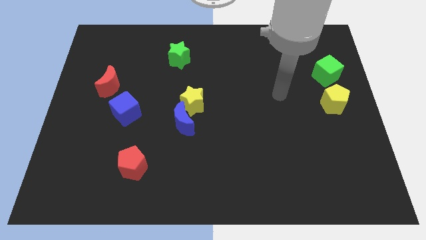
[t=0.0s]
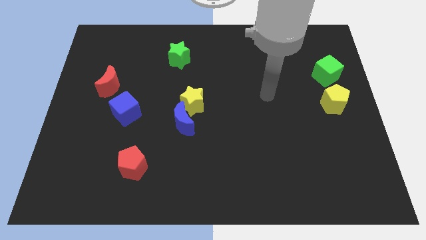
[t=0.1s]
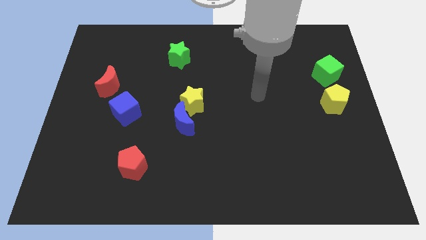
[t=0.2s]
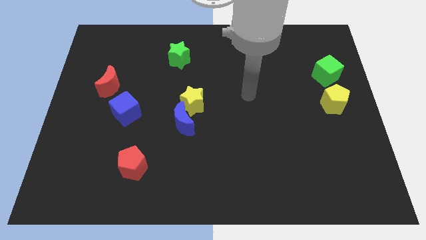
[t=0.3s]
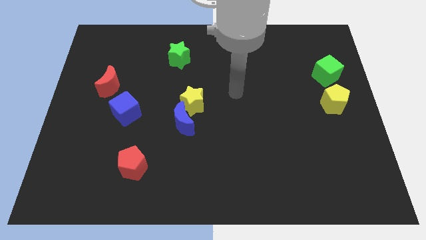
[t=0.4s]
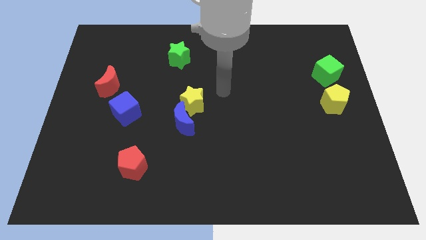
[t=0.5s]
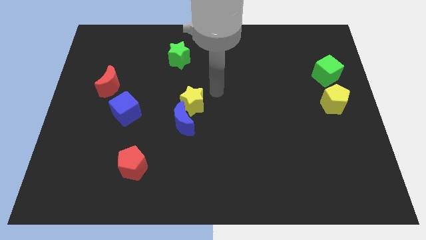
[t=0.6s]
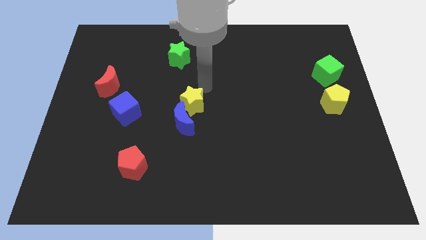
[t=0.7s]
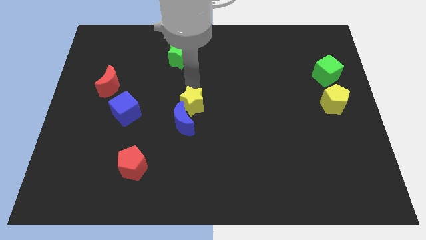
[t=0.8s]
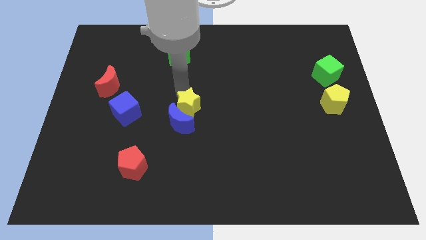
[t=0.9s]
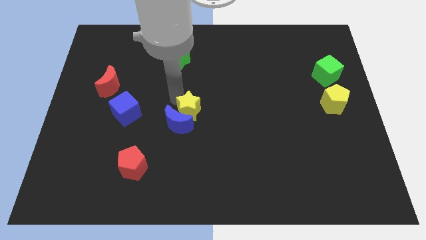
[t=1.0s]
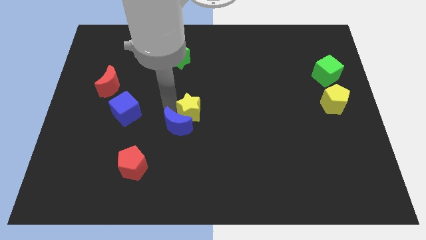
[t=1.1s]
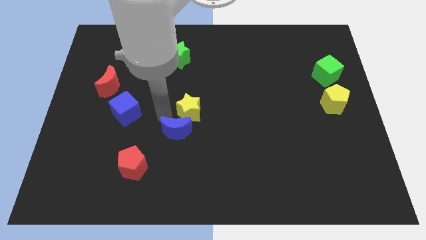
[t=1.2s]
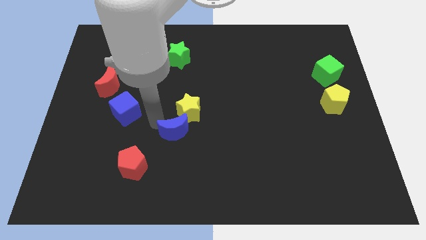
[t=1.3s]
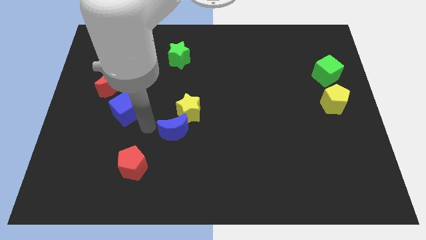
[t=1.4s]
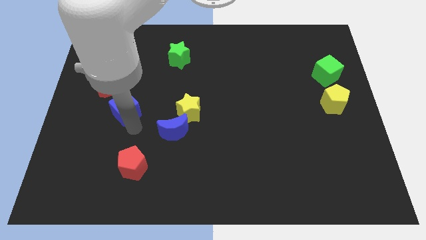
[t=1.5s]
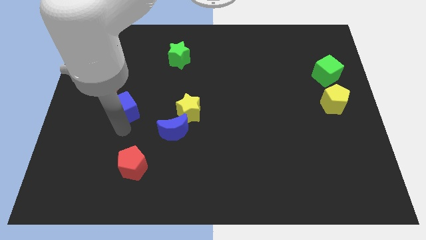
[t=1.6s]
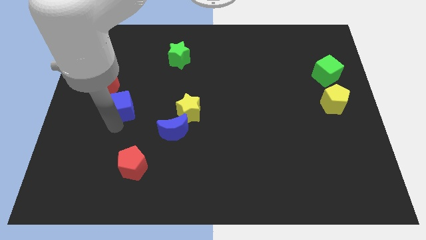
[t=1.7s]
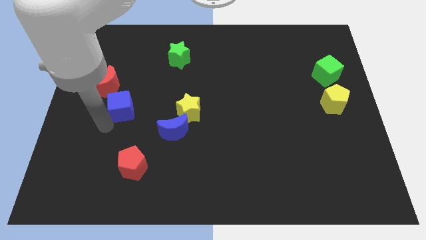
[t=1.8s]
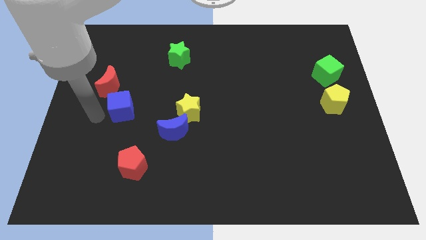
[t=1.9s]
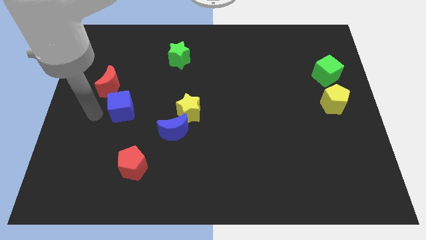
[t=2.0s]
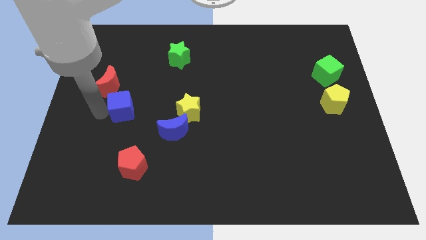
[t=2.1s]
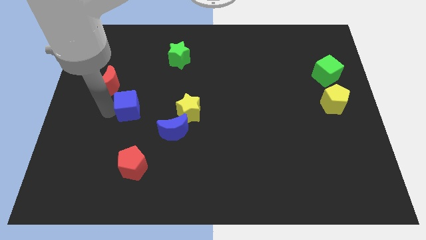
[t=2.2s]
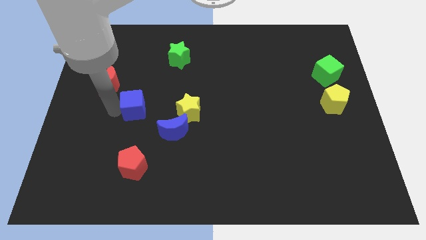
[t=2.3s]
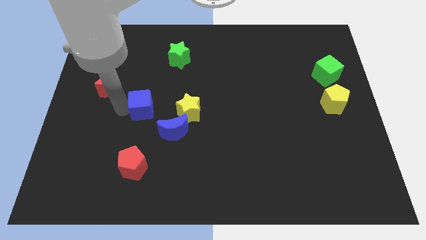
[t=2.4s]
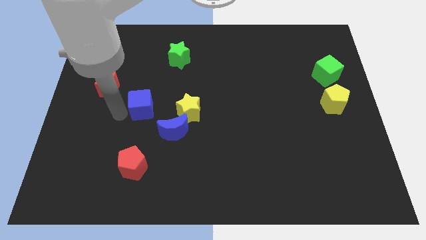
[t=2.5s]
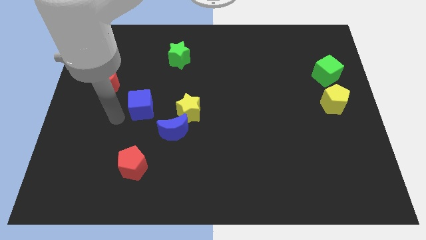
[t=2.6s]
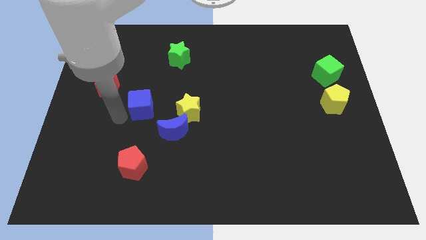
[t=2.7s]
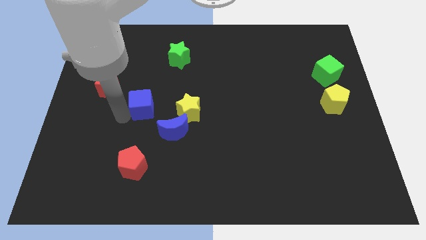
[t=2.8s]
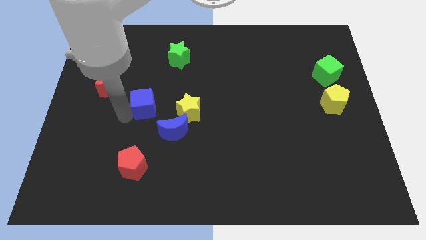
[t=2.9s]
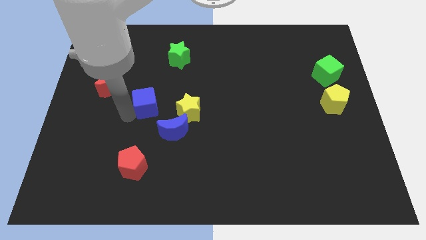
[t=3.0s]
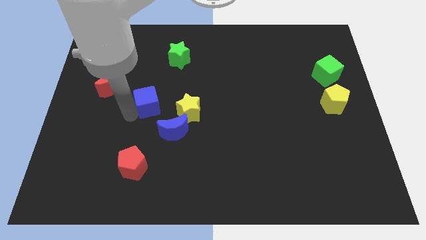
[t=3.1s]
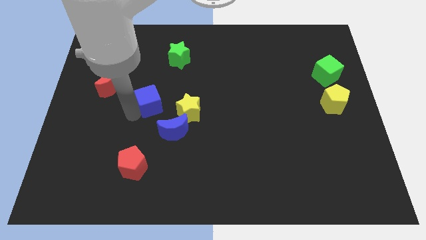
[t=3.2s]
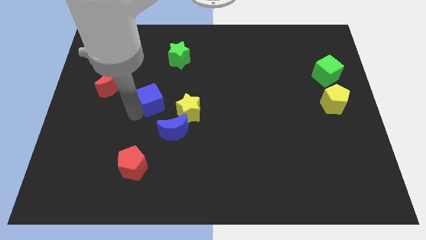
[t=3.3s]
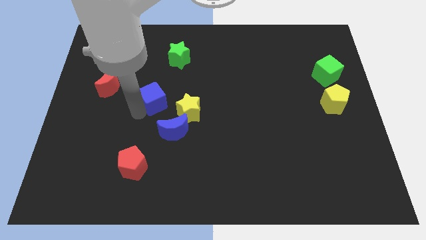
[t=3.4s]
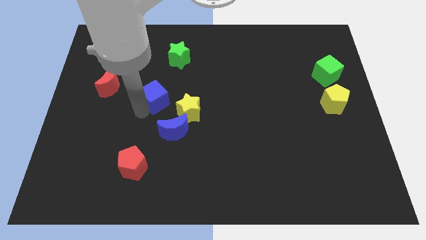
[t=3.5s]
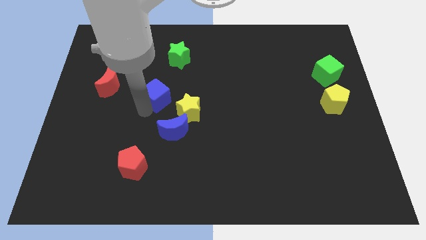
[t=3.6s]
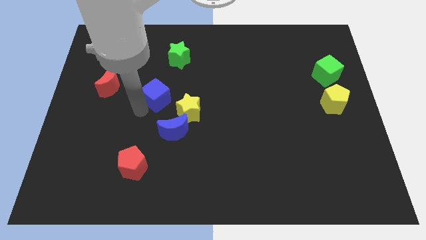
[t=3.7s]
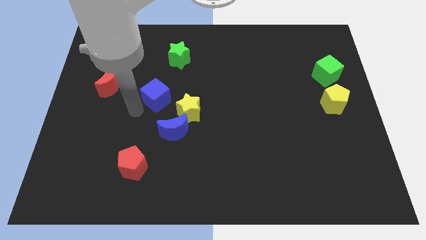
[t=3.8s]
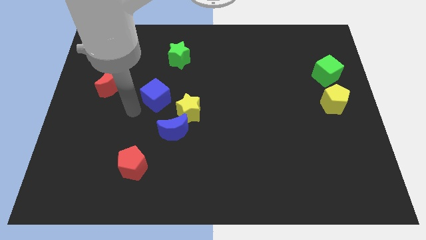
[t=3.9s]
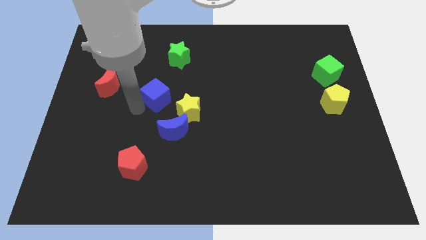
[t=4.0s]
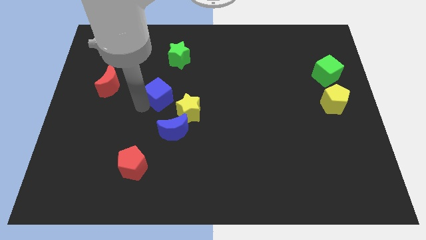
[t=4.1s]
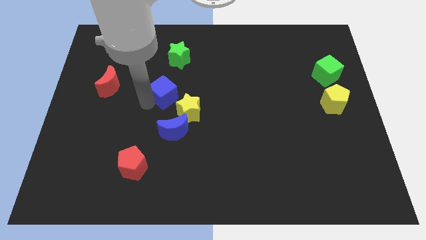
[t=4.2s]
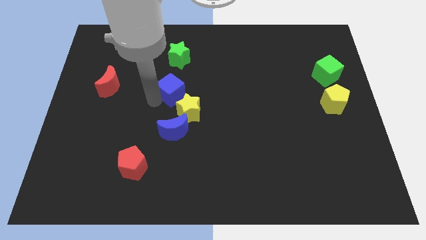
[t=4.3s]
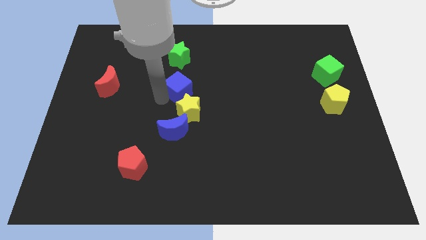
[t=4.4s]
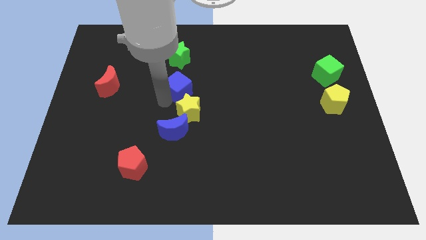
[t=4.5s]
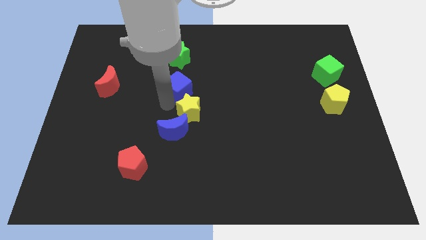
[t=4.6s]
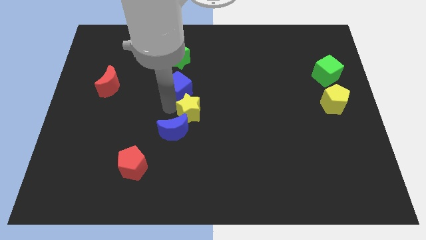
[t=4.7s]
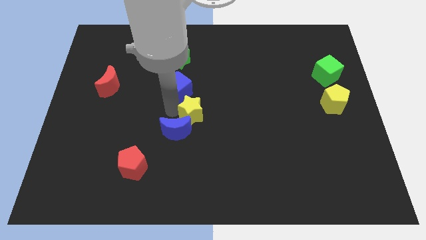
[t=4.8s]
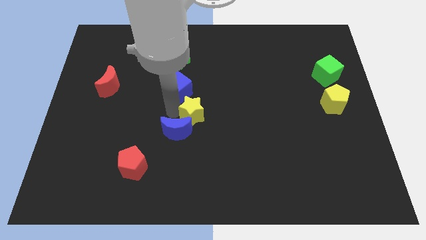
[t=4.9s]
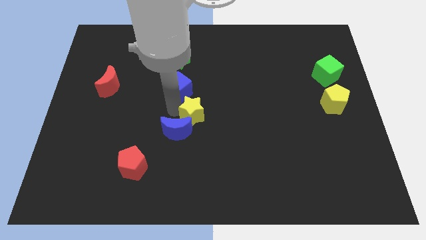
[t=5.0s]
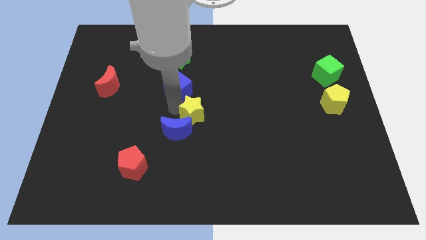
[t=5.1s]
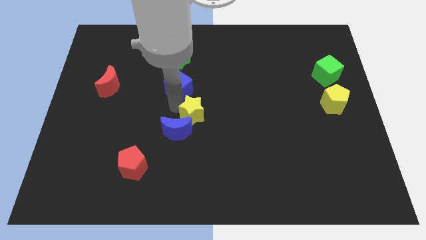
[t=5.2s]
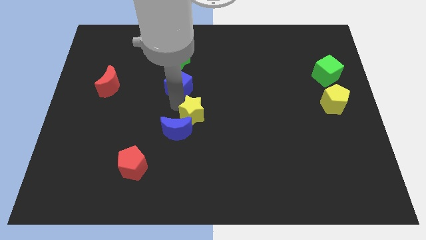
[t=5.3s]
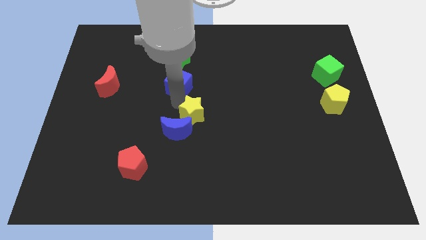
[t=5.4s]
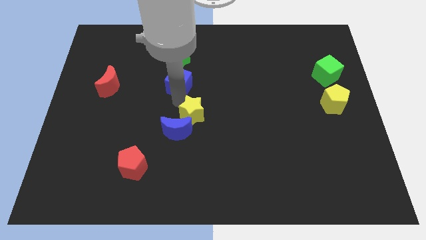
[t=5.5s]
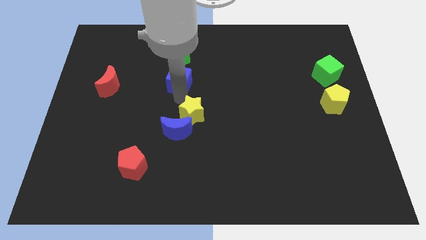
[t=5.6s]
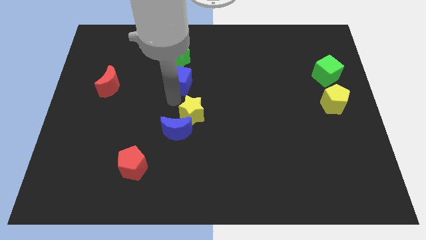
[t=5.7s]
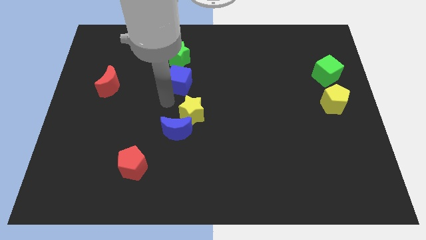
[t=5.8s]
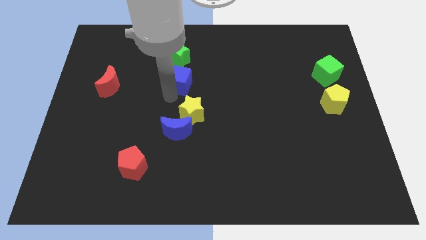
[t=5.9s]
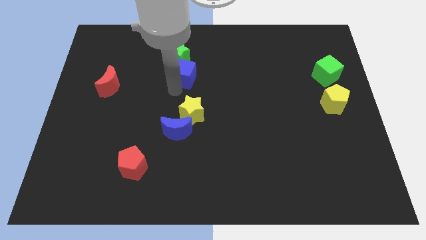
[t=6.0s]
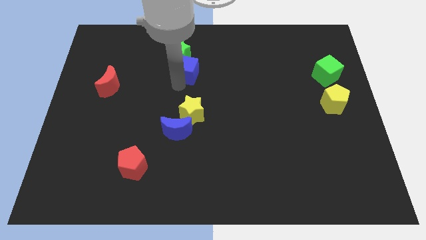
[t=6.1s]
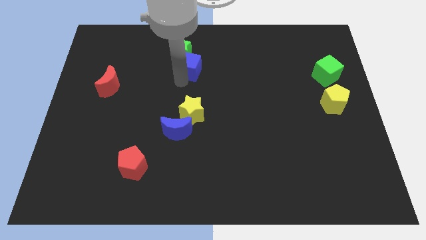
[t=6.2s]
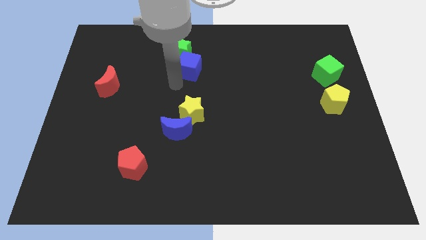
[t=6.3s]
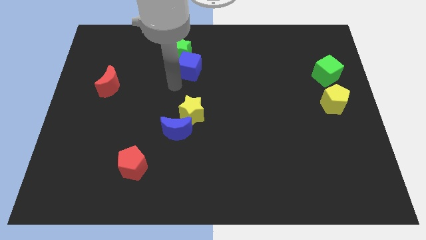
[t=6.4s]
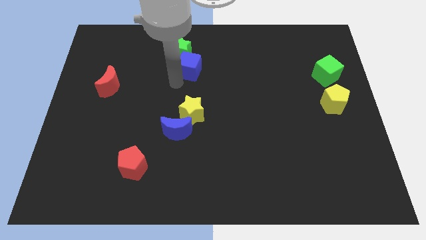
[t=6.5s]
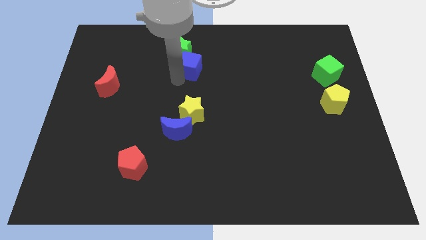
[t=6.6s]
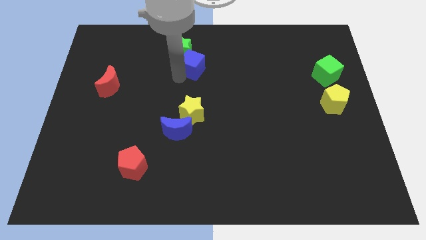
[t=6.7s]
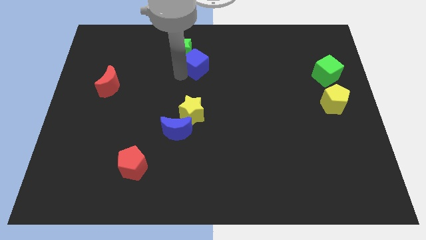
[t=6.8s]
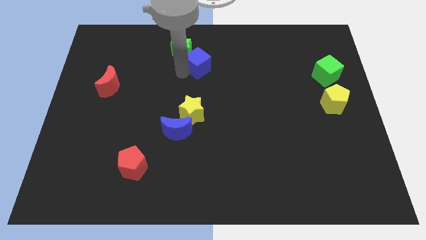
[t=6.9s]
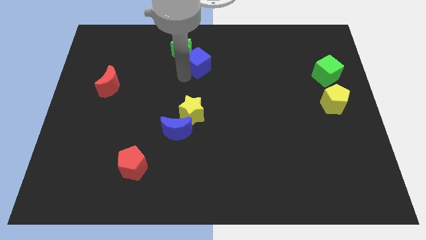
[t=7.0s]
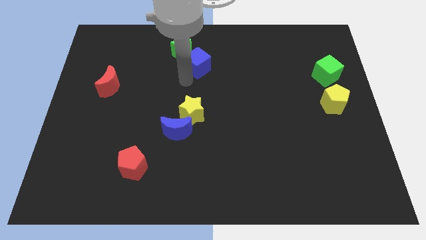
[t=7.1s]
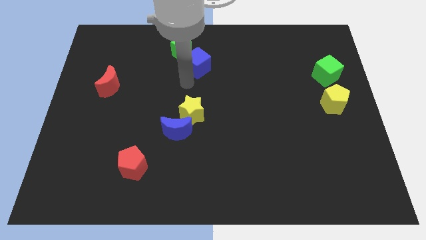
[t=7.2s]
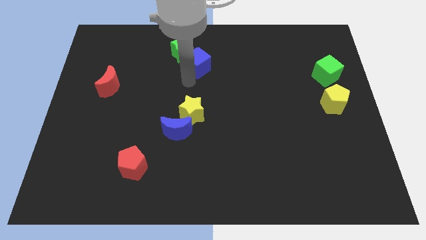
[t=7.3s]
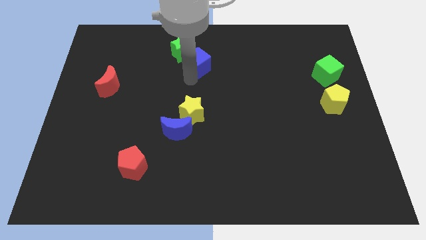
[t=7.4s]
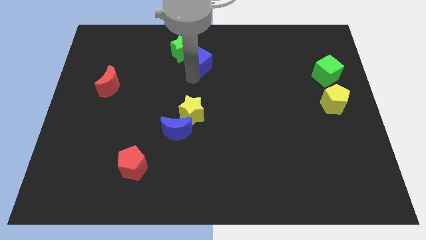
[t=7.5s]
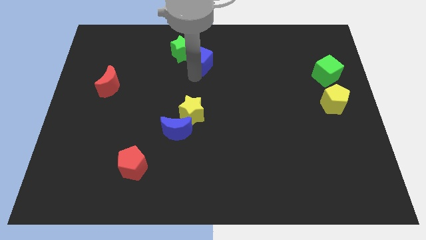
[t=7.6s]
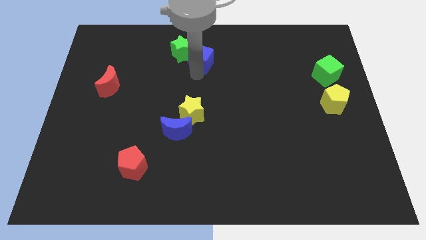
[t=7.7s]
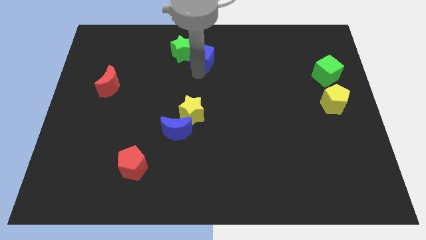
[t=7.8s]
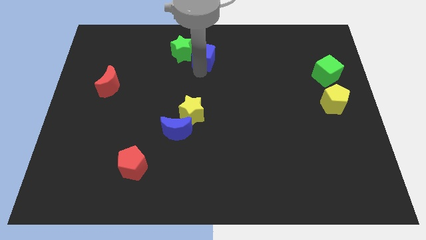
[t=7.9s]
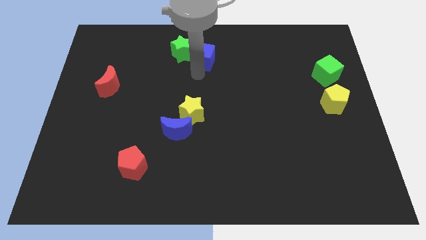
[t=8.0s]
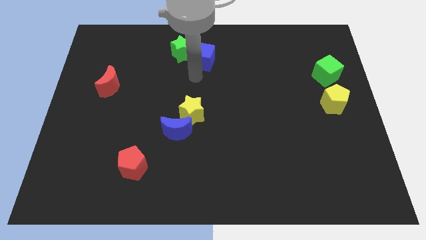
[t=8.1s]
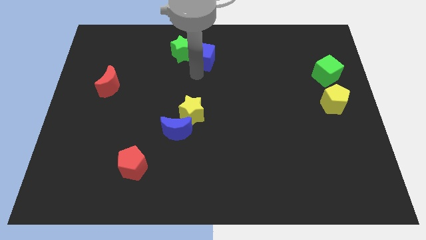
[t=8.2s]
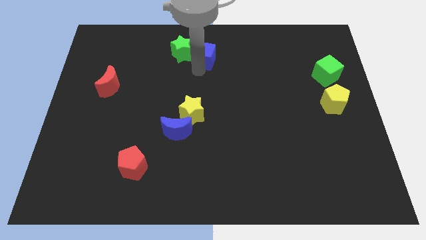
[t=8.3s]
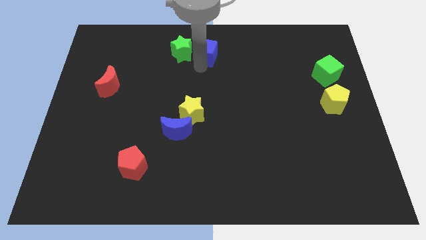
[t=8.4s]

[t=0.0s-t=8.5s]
move the blue cube to the top
